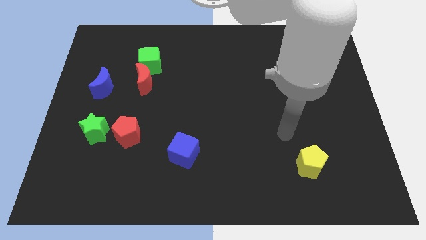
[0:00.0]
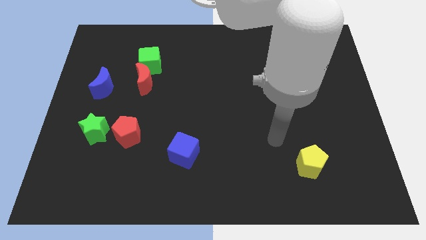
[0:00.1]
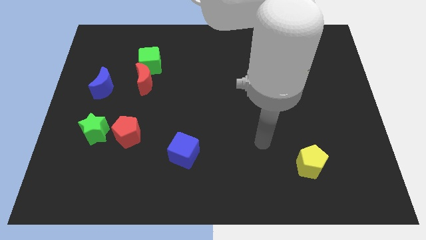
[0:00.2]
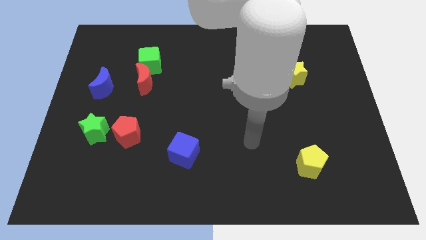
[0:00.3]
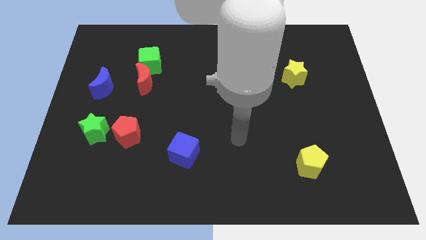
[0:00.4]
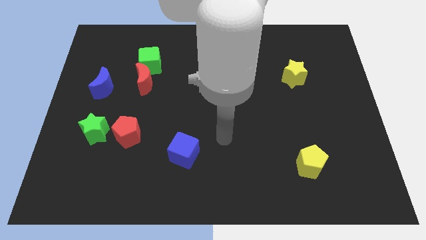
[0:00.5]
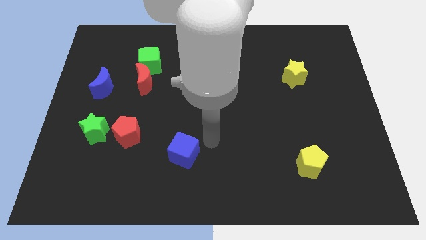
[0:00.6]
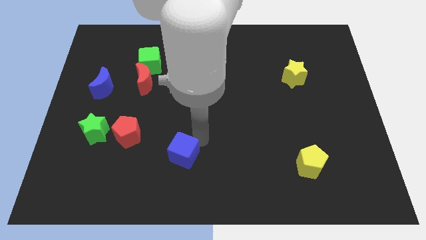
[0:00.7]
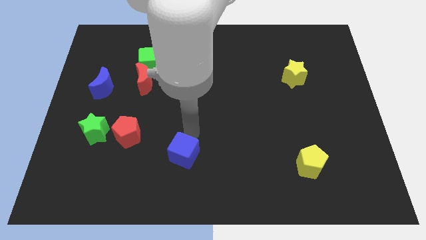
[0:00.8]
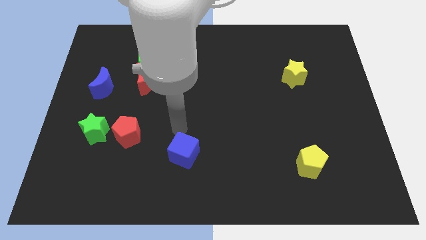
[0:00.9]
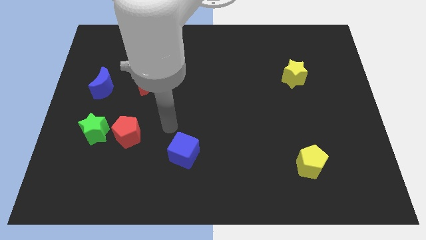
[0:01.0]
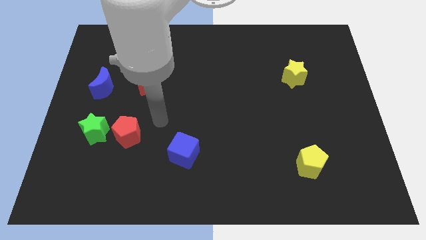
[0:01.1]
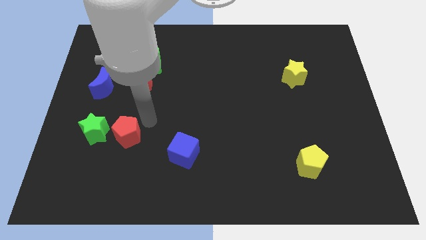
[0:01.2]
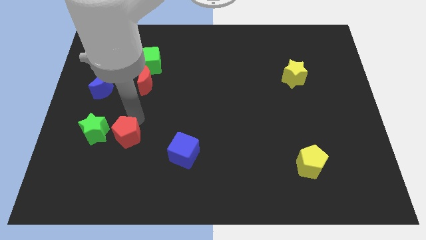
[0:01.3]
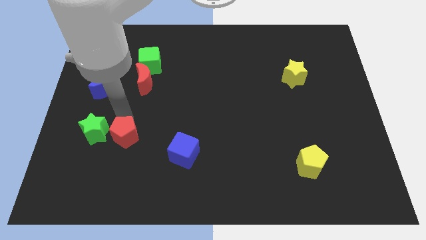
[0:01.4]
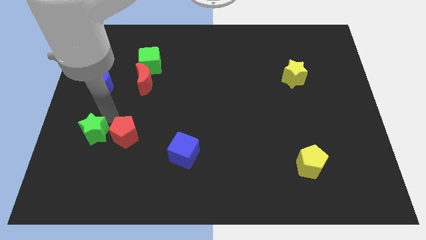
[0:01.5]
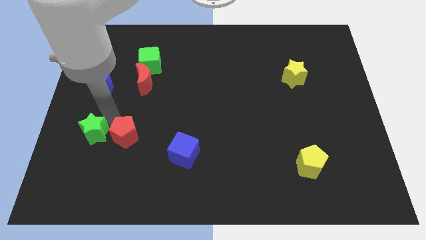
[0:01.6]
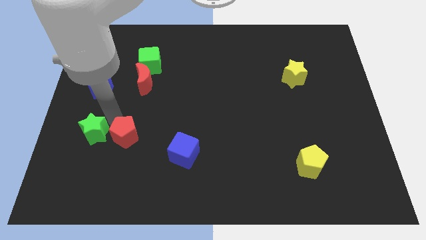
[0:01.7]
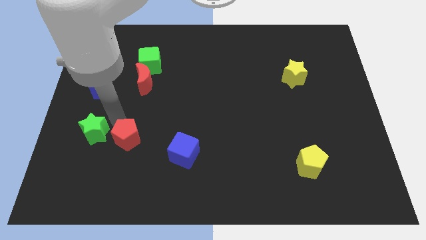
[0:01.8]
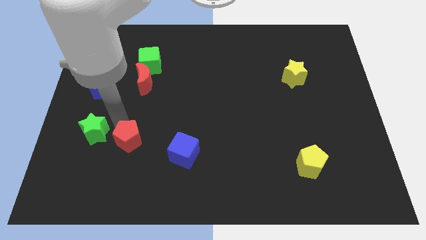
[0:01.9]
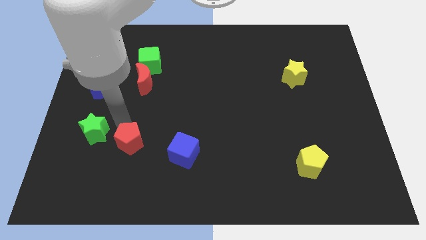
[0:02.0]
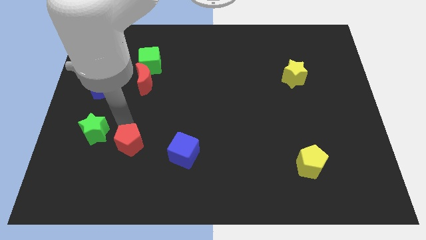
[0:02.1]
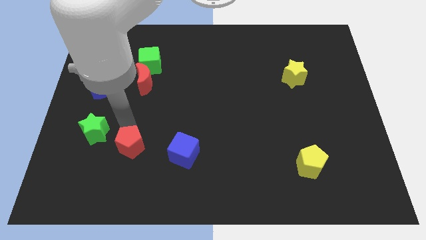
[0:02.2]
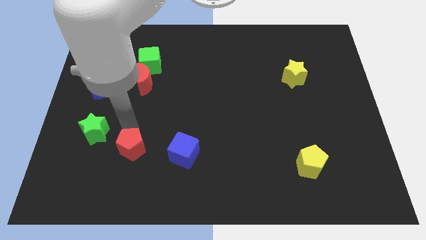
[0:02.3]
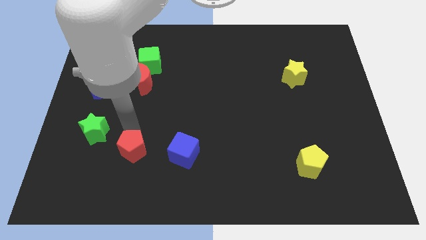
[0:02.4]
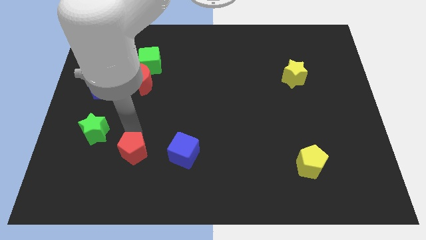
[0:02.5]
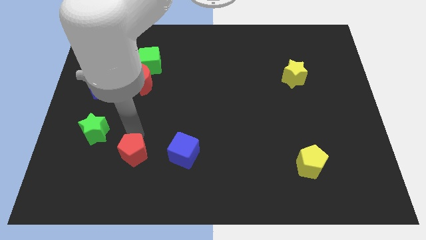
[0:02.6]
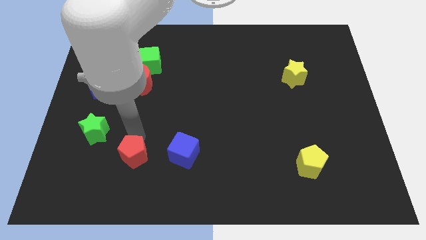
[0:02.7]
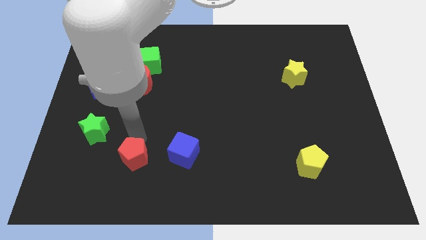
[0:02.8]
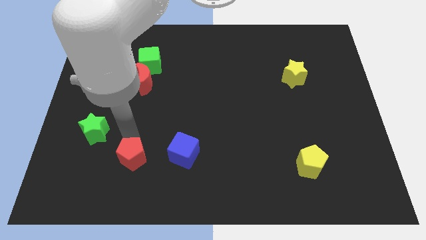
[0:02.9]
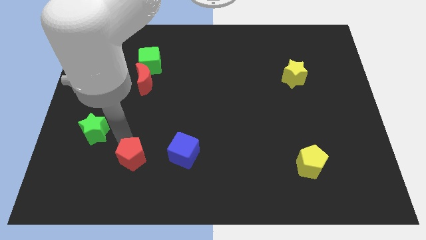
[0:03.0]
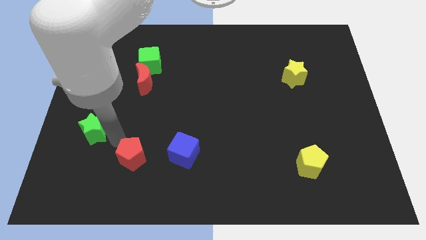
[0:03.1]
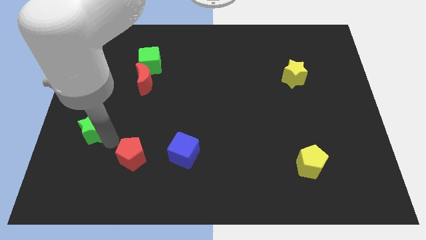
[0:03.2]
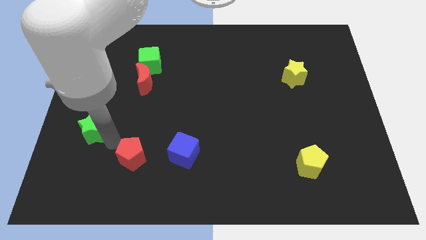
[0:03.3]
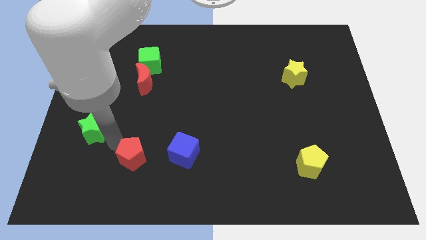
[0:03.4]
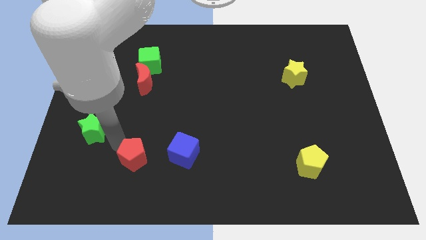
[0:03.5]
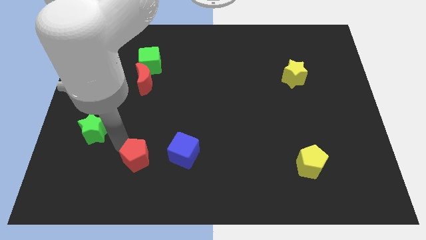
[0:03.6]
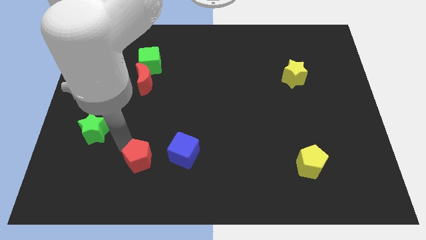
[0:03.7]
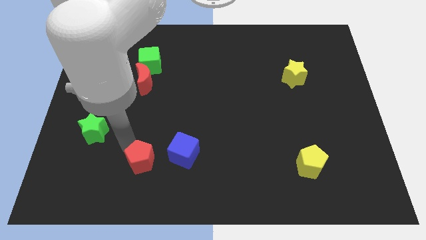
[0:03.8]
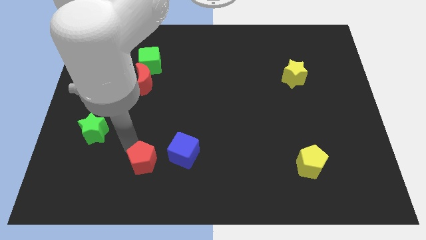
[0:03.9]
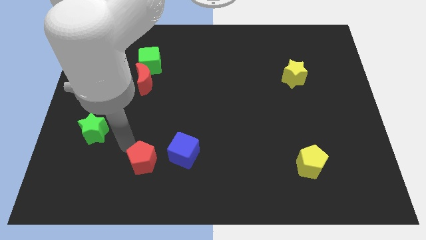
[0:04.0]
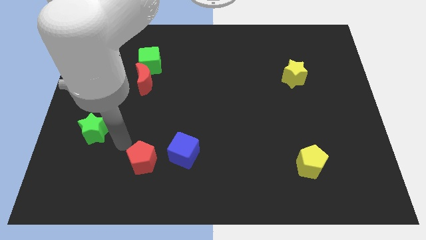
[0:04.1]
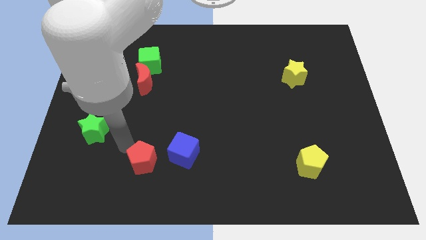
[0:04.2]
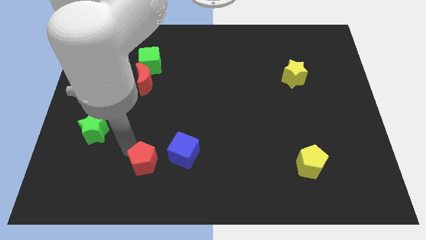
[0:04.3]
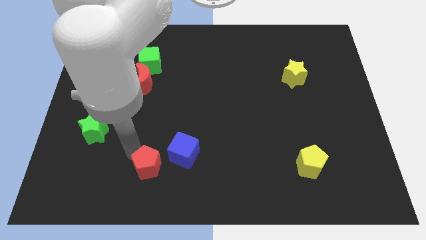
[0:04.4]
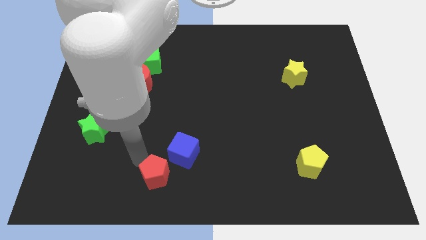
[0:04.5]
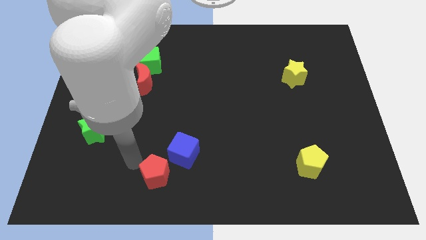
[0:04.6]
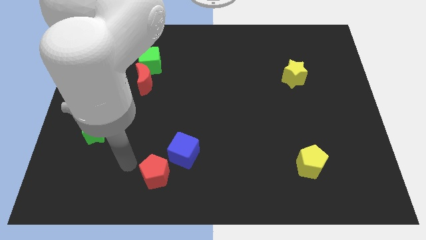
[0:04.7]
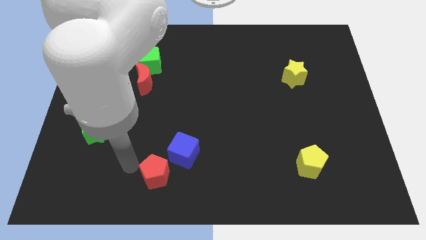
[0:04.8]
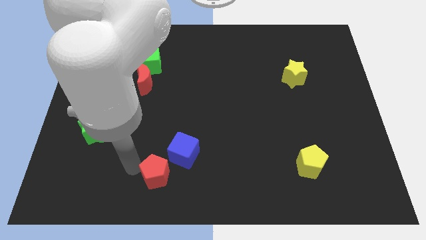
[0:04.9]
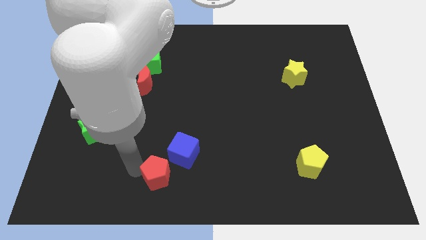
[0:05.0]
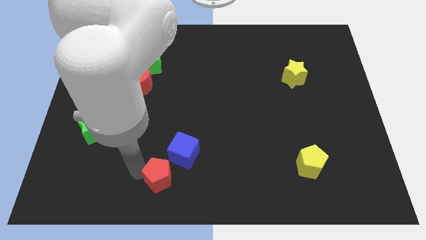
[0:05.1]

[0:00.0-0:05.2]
put the red pentagon to the bottom

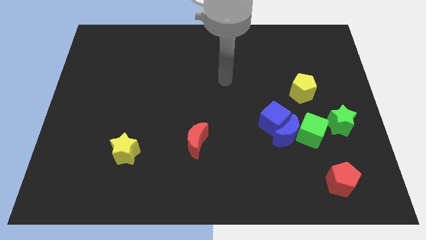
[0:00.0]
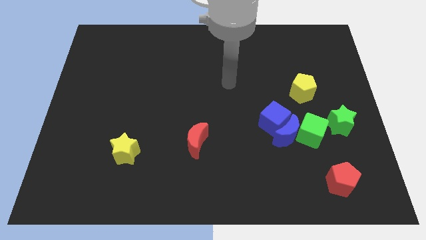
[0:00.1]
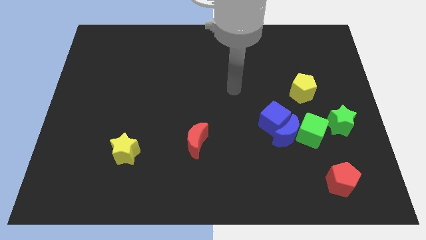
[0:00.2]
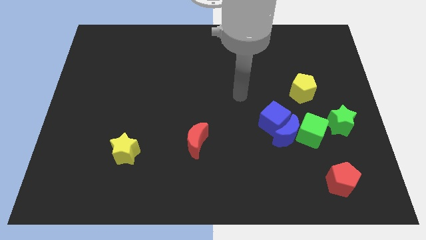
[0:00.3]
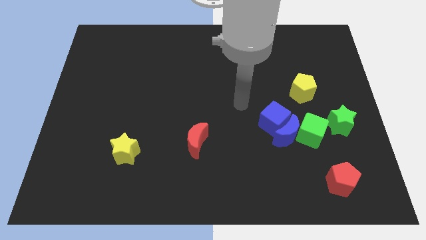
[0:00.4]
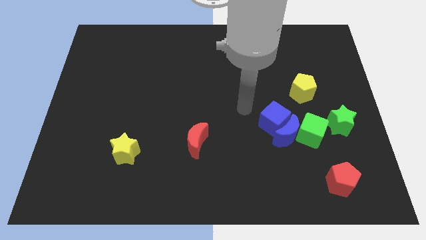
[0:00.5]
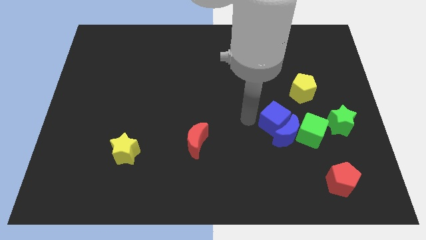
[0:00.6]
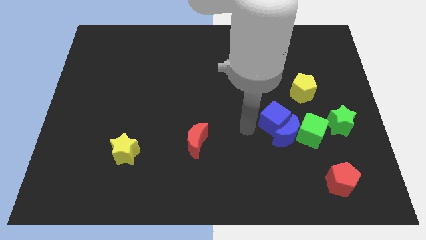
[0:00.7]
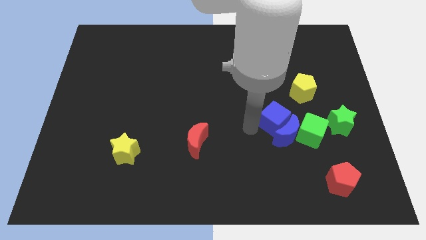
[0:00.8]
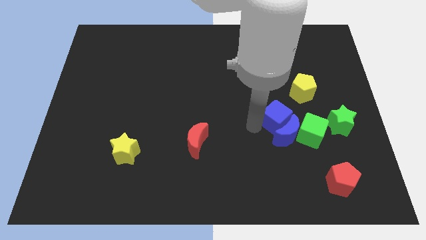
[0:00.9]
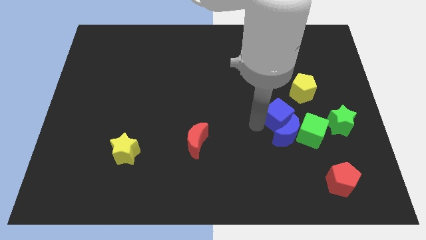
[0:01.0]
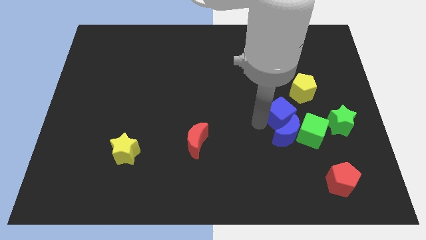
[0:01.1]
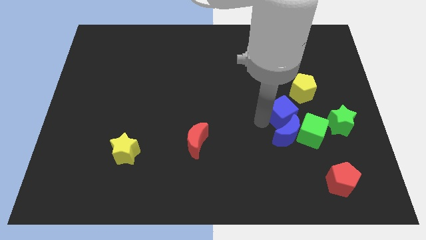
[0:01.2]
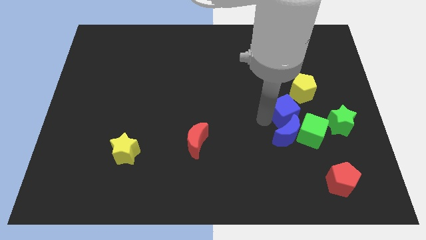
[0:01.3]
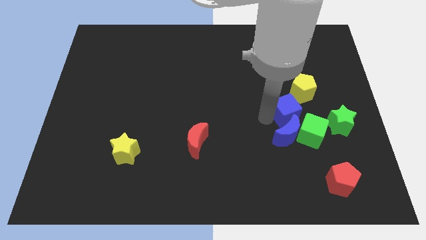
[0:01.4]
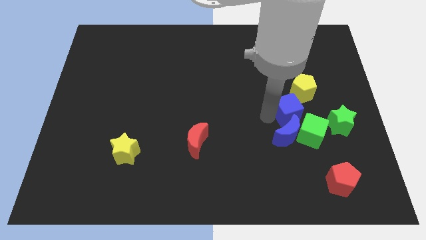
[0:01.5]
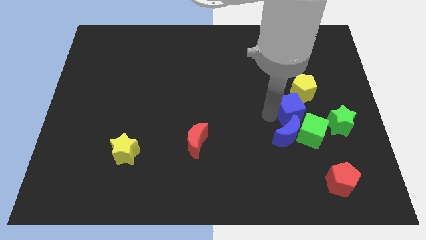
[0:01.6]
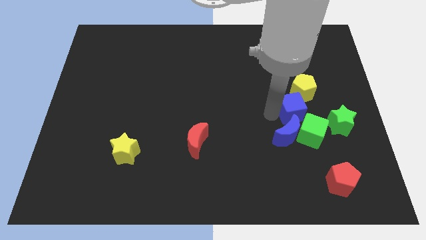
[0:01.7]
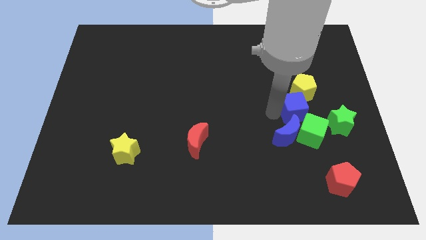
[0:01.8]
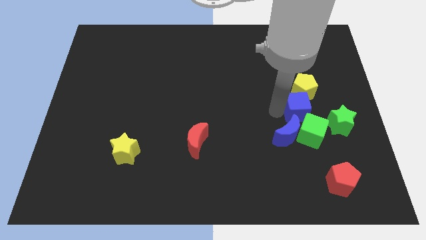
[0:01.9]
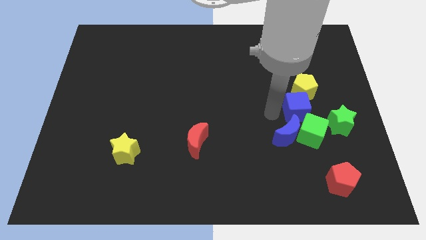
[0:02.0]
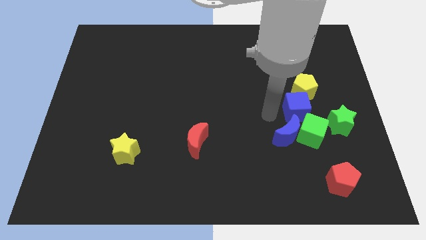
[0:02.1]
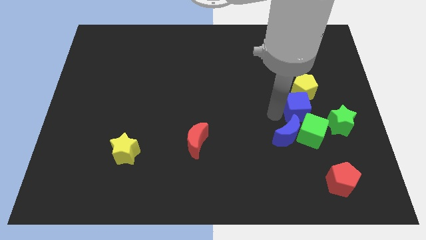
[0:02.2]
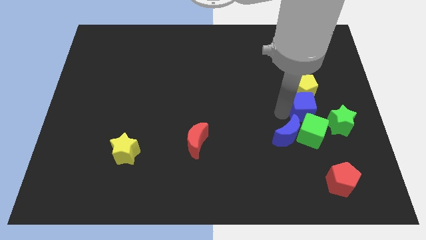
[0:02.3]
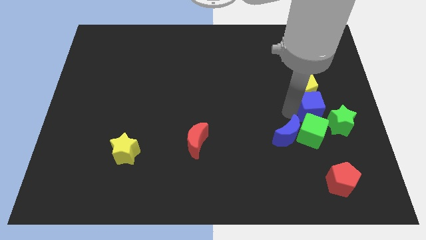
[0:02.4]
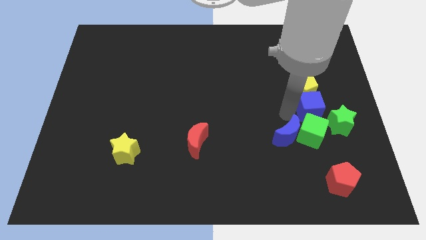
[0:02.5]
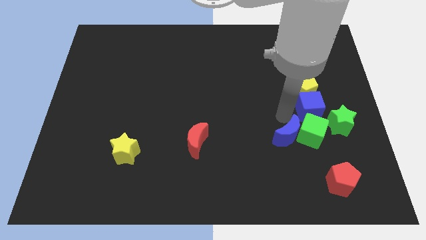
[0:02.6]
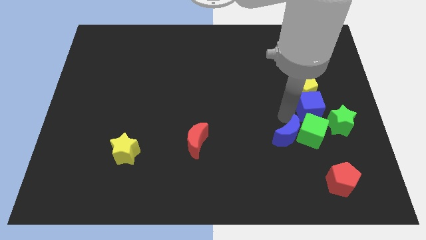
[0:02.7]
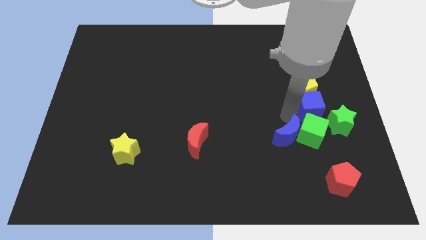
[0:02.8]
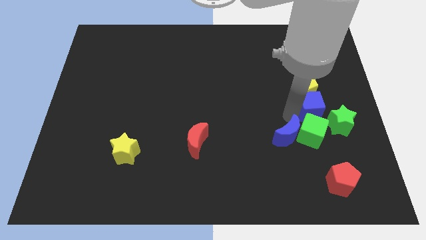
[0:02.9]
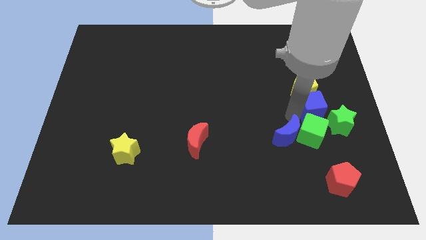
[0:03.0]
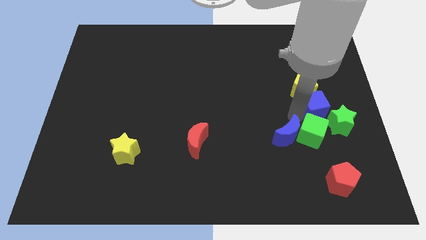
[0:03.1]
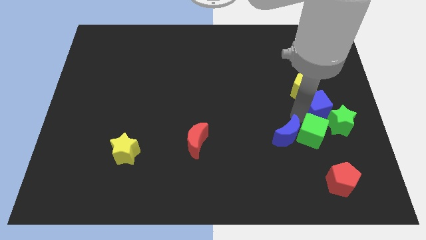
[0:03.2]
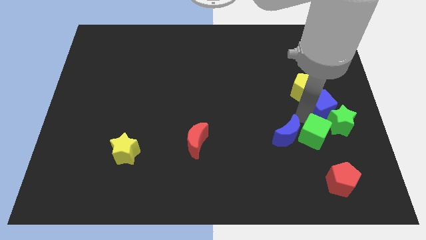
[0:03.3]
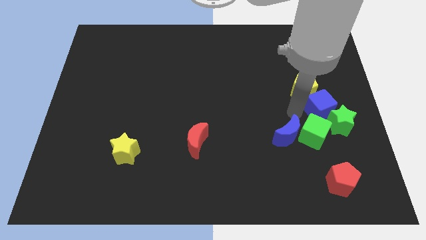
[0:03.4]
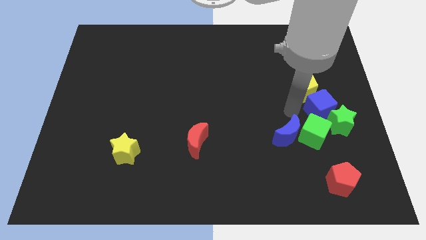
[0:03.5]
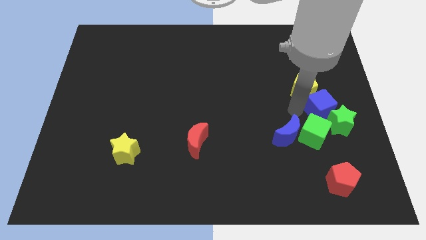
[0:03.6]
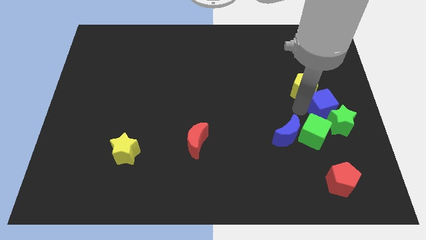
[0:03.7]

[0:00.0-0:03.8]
slide the blue cube to the right side
